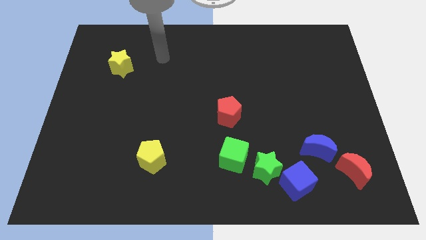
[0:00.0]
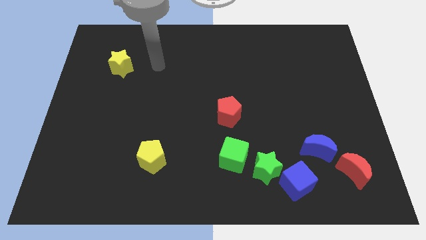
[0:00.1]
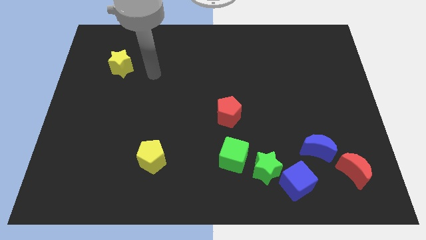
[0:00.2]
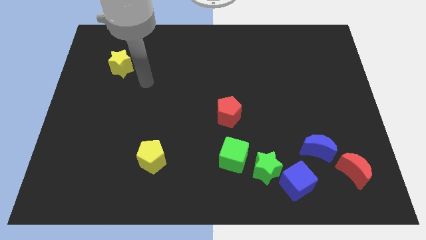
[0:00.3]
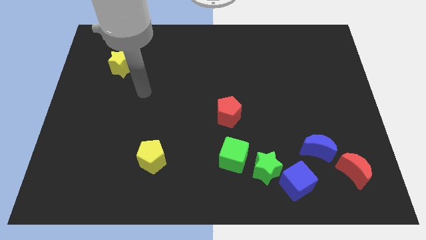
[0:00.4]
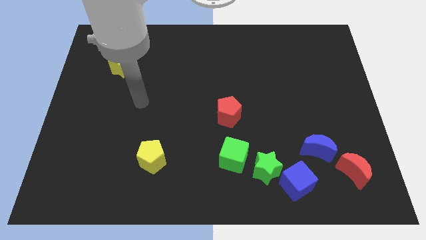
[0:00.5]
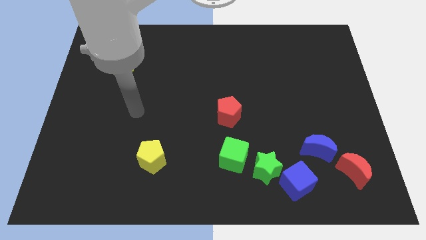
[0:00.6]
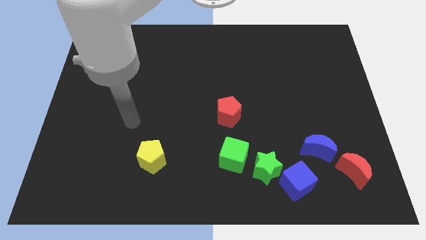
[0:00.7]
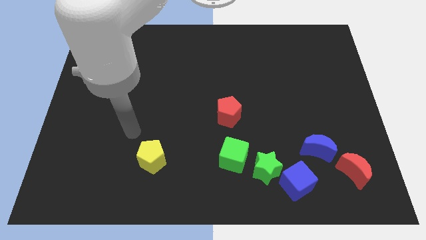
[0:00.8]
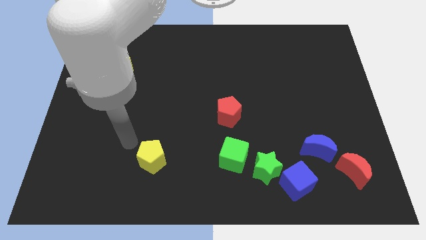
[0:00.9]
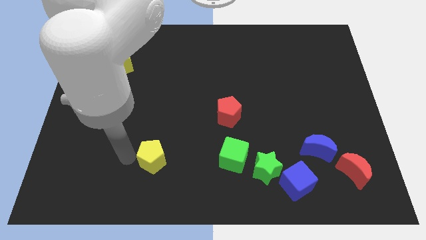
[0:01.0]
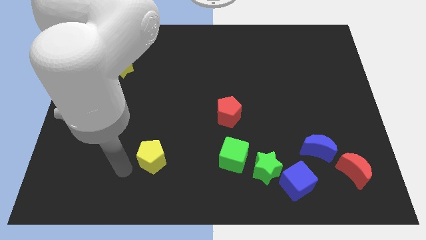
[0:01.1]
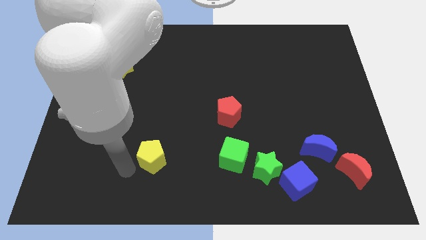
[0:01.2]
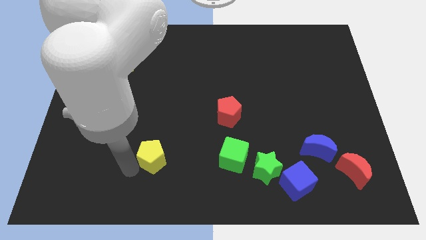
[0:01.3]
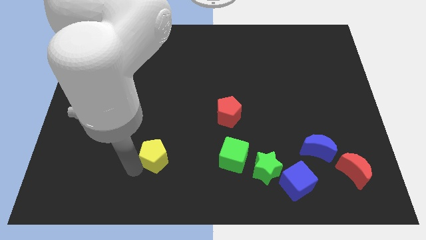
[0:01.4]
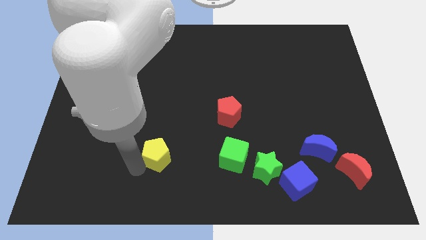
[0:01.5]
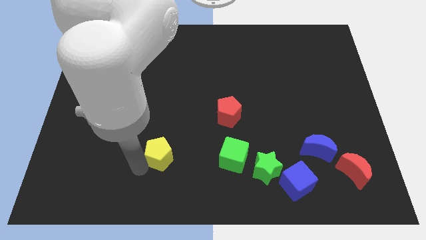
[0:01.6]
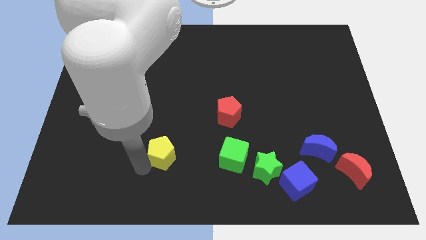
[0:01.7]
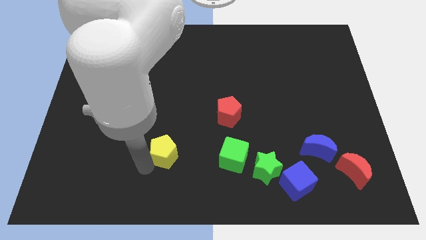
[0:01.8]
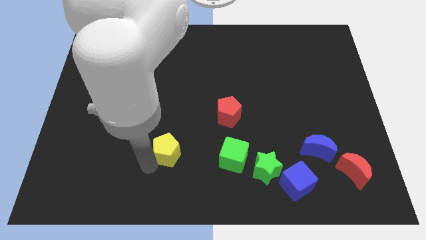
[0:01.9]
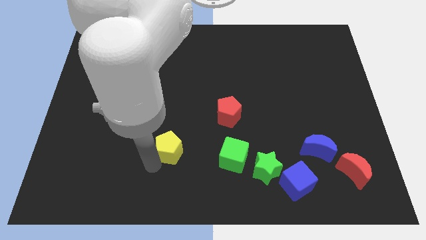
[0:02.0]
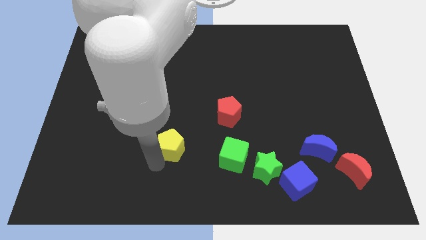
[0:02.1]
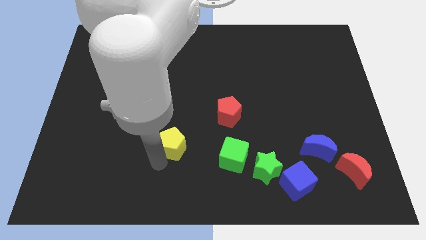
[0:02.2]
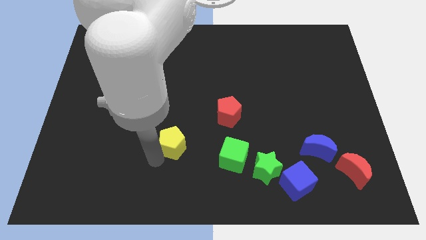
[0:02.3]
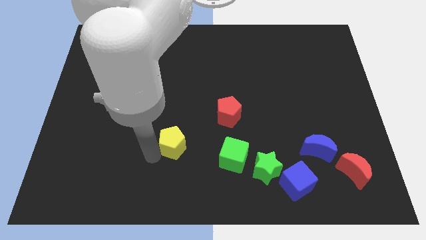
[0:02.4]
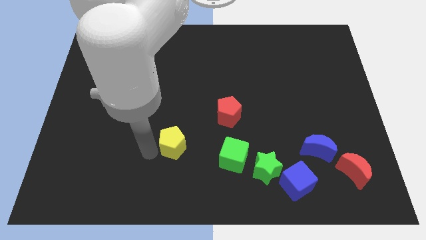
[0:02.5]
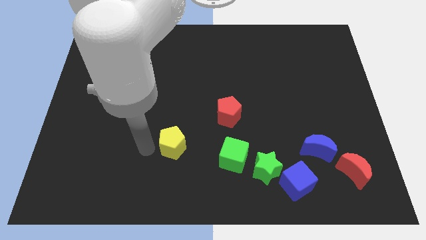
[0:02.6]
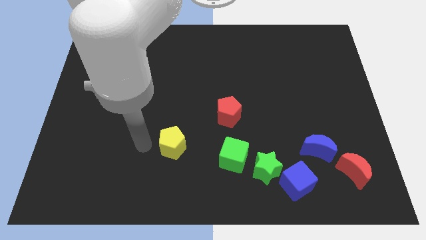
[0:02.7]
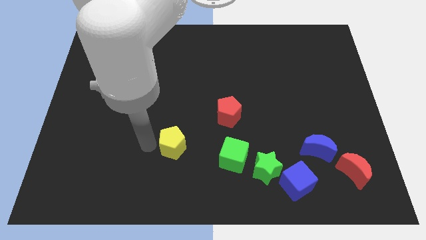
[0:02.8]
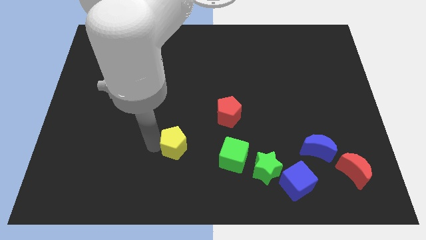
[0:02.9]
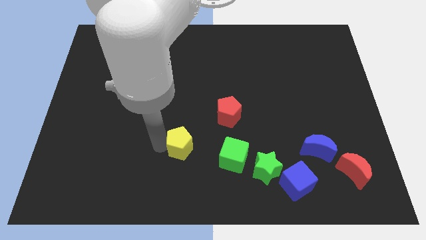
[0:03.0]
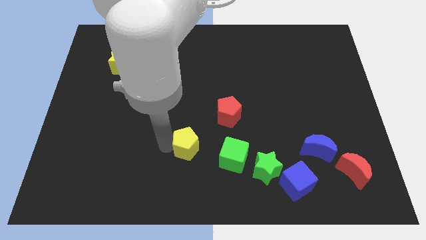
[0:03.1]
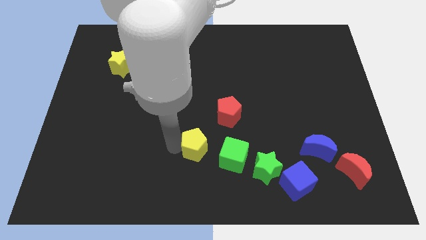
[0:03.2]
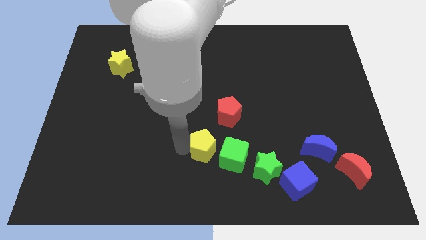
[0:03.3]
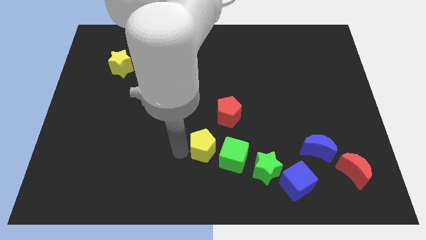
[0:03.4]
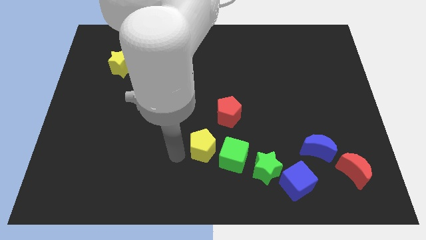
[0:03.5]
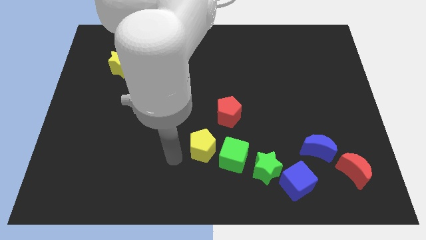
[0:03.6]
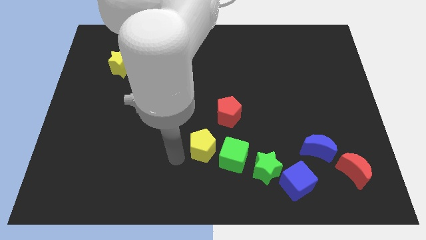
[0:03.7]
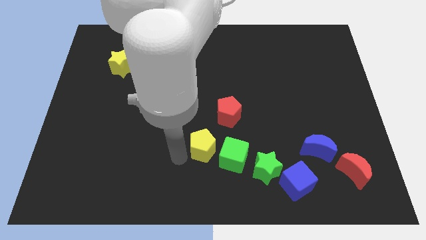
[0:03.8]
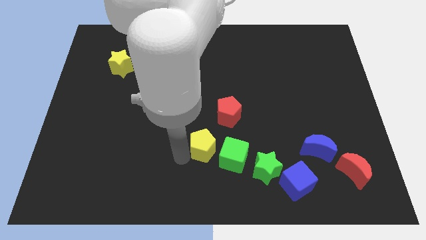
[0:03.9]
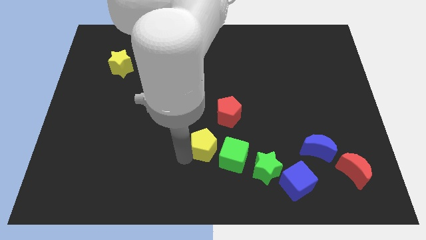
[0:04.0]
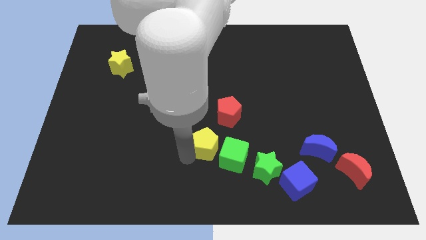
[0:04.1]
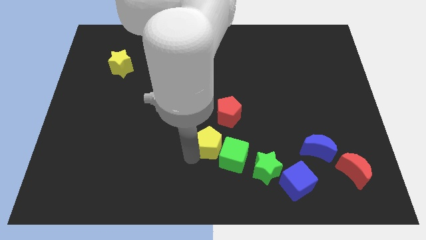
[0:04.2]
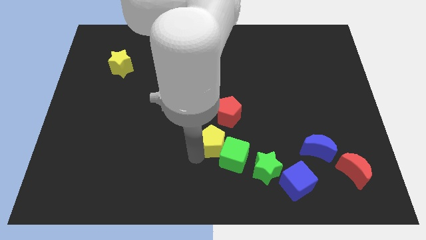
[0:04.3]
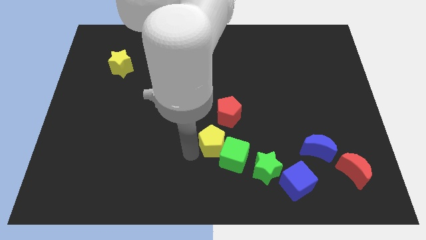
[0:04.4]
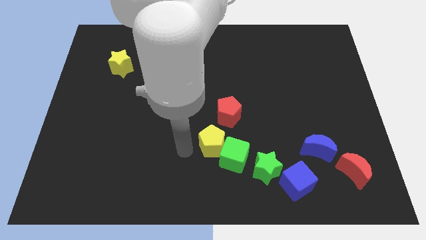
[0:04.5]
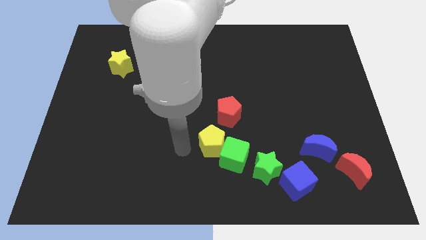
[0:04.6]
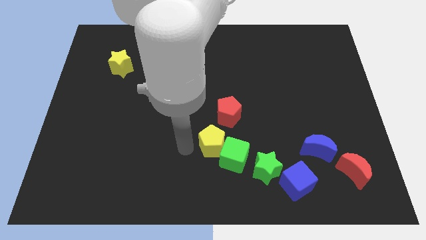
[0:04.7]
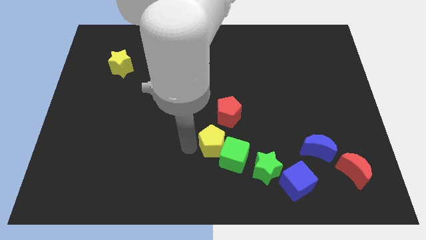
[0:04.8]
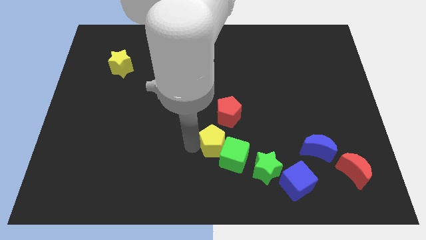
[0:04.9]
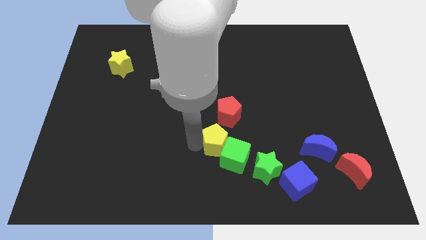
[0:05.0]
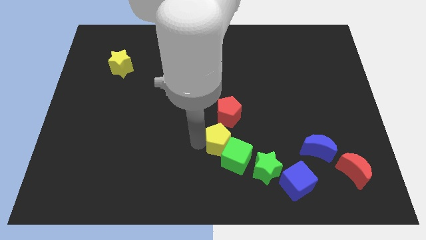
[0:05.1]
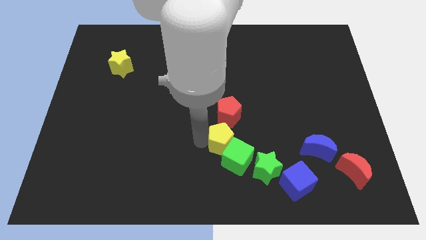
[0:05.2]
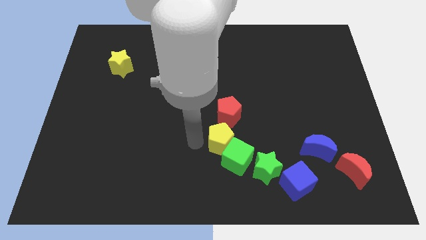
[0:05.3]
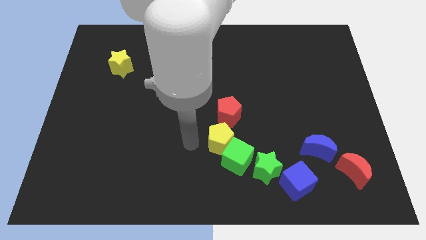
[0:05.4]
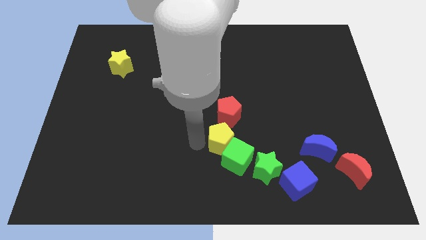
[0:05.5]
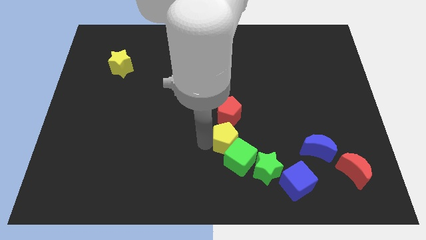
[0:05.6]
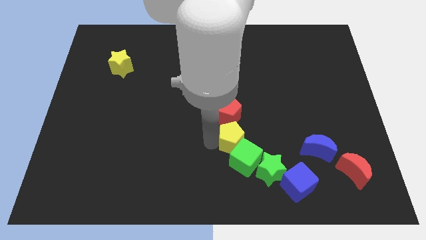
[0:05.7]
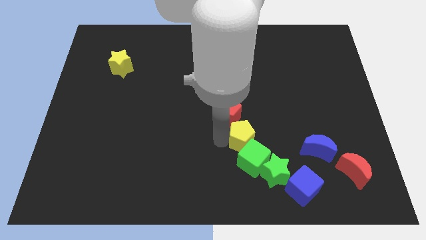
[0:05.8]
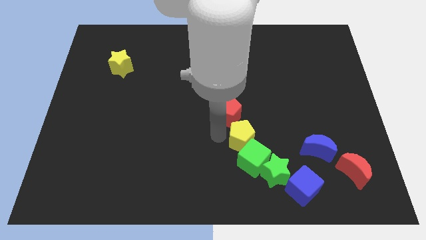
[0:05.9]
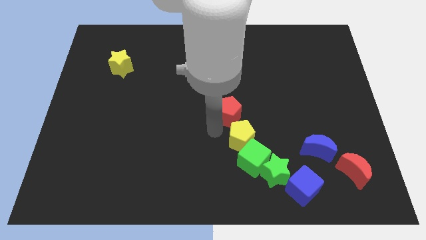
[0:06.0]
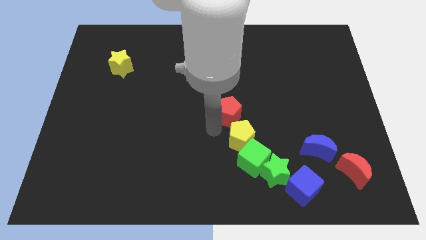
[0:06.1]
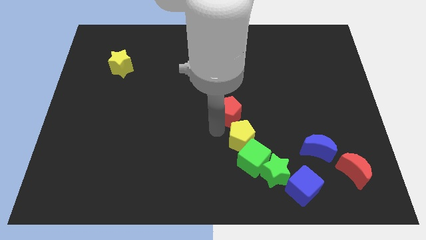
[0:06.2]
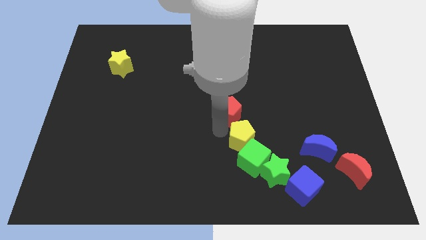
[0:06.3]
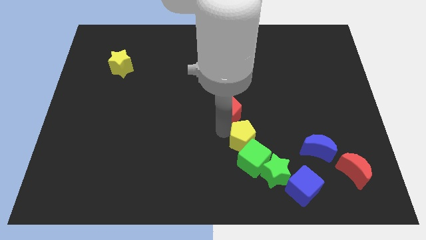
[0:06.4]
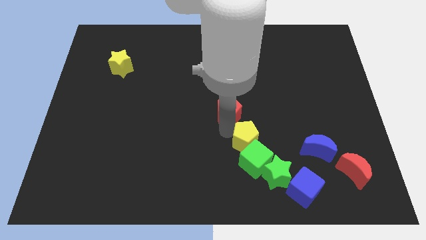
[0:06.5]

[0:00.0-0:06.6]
push the yellow pentagon left of the blue moon

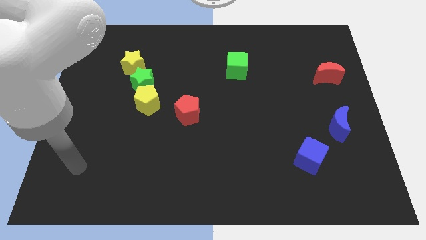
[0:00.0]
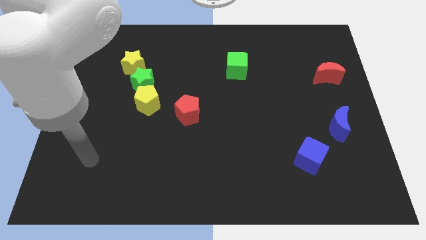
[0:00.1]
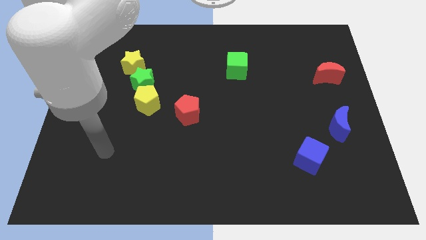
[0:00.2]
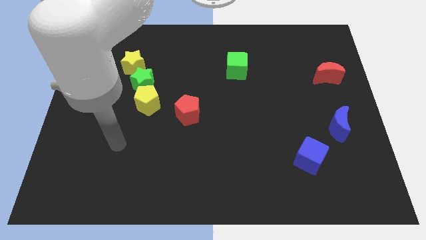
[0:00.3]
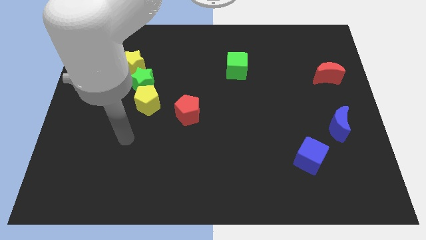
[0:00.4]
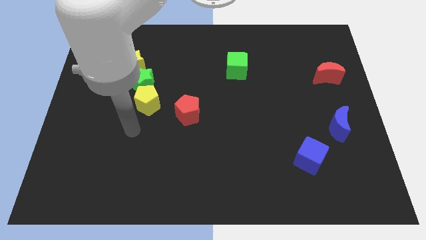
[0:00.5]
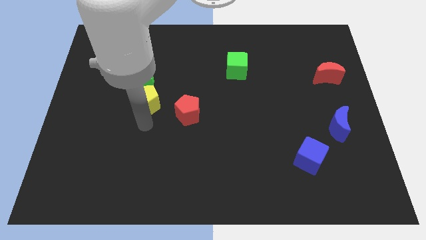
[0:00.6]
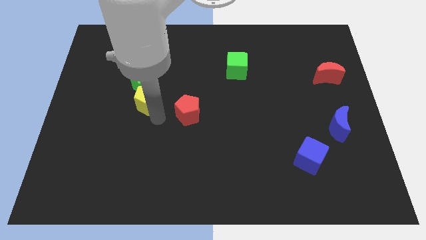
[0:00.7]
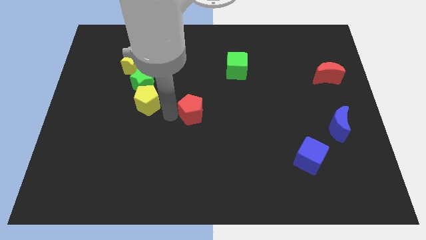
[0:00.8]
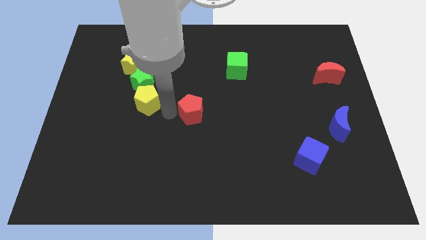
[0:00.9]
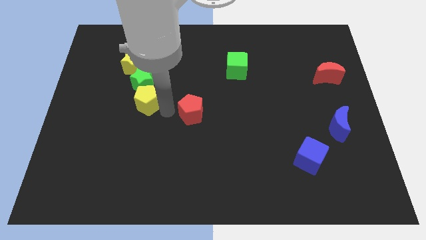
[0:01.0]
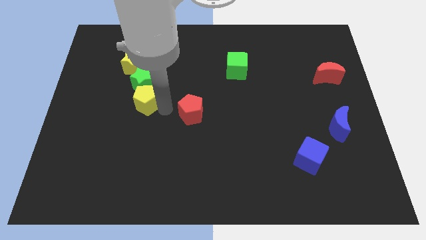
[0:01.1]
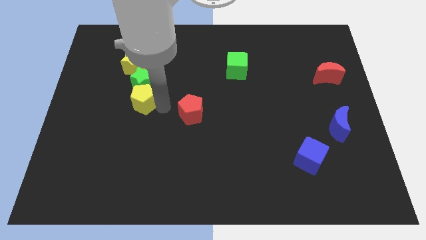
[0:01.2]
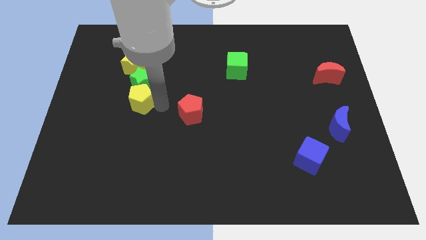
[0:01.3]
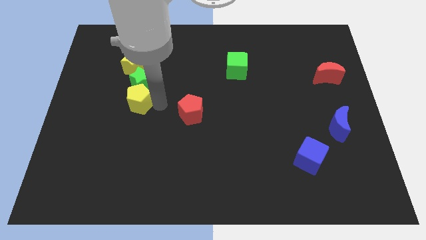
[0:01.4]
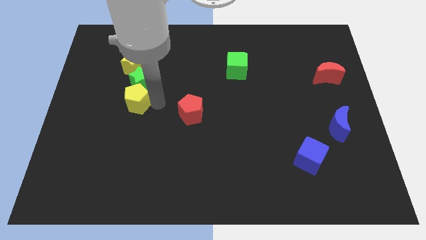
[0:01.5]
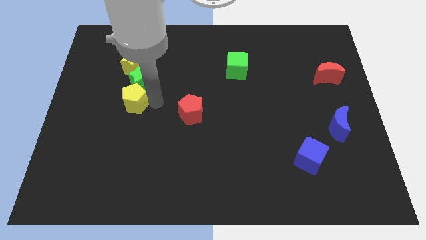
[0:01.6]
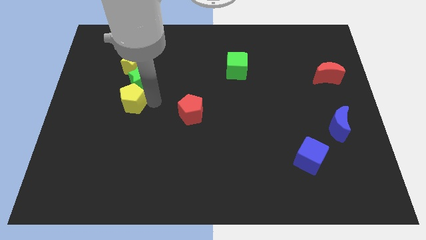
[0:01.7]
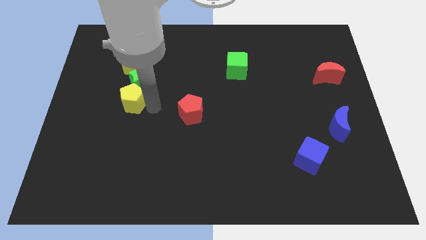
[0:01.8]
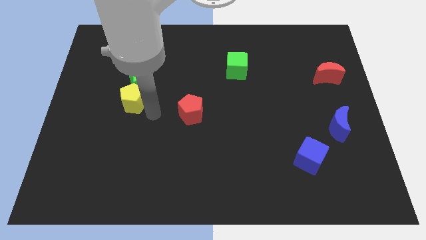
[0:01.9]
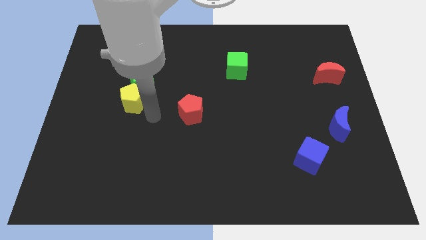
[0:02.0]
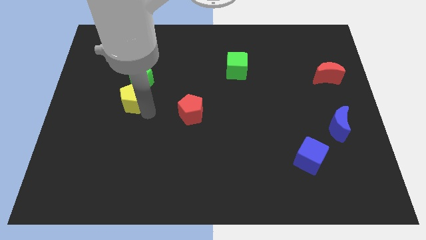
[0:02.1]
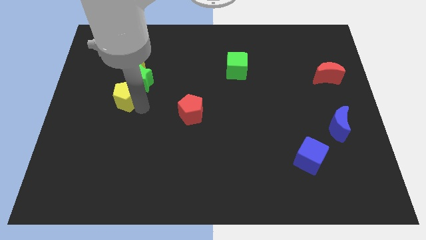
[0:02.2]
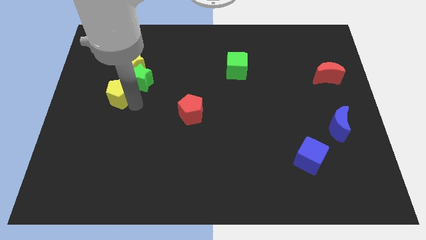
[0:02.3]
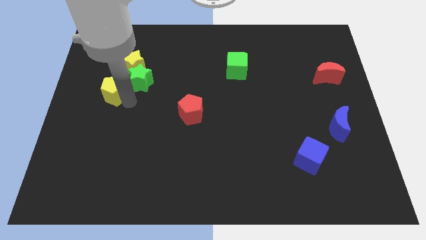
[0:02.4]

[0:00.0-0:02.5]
move the yellow pentagon to the bottom left of the yellow star
